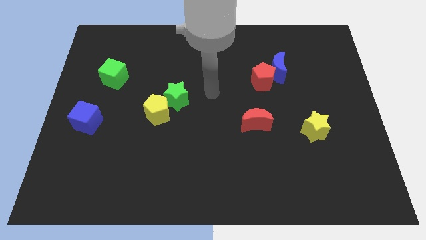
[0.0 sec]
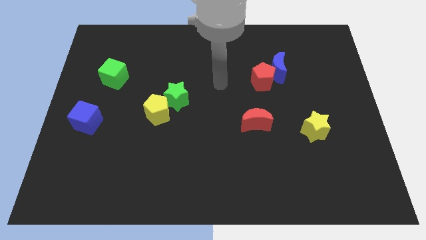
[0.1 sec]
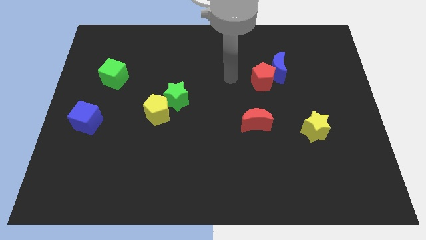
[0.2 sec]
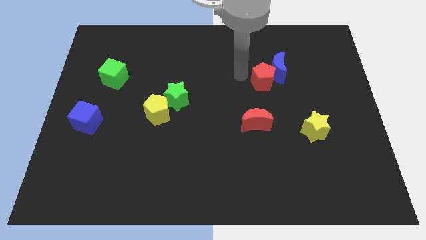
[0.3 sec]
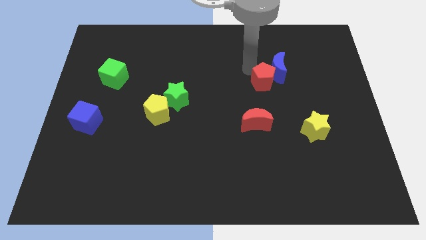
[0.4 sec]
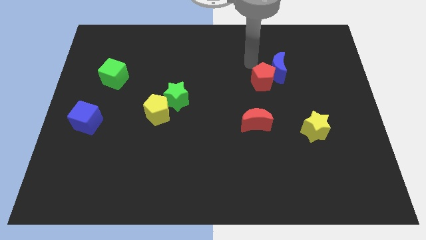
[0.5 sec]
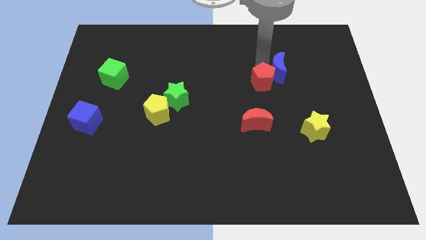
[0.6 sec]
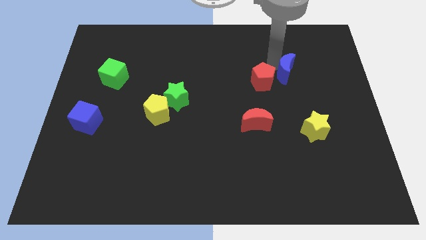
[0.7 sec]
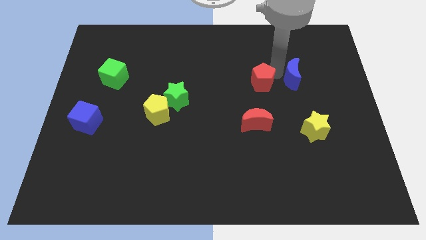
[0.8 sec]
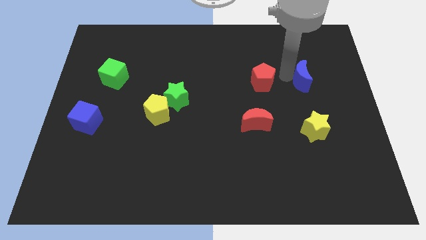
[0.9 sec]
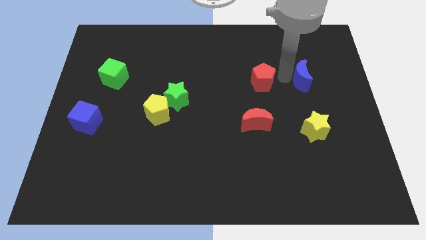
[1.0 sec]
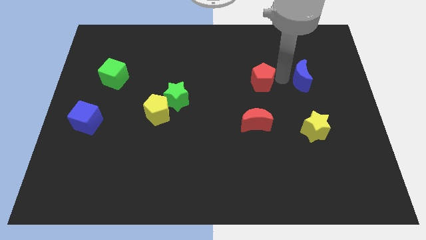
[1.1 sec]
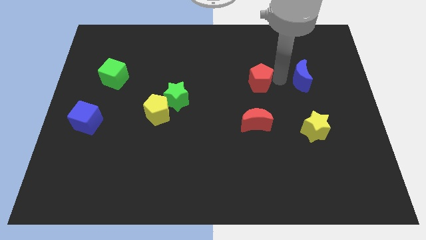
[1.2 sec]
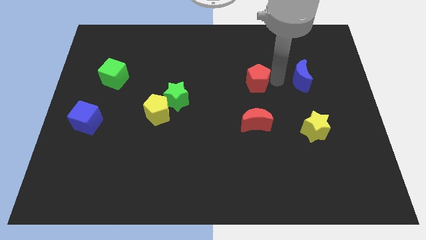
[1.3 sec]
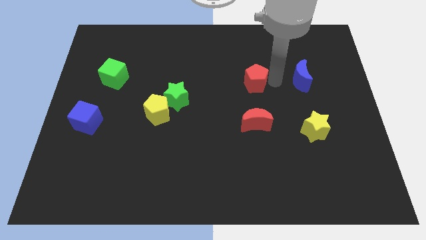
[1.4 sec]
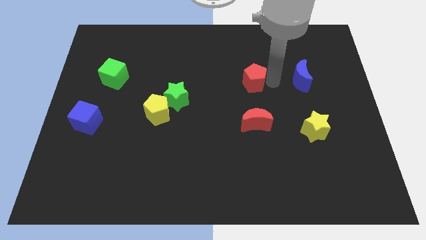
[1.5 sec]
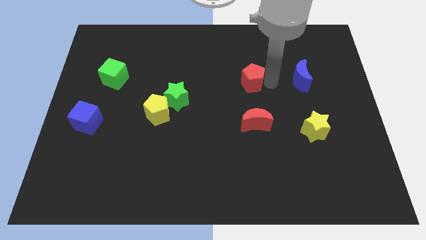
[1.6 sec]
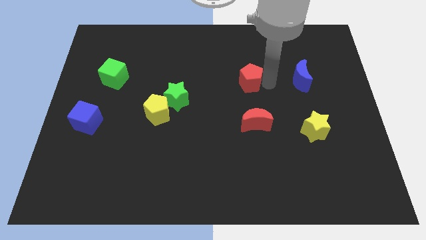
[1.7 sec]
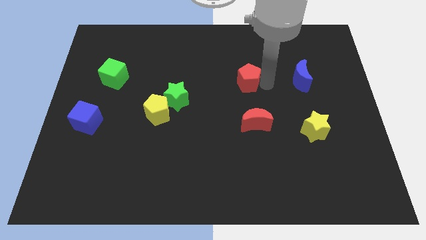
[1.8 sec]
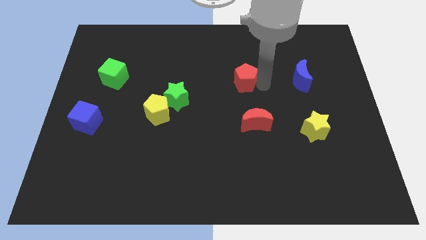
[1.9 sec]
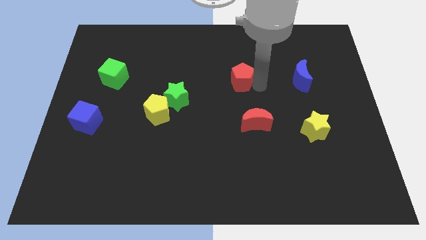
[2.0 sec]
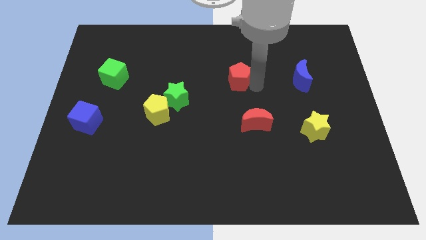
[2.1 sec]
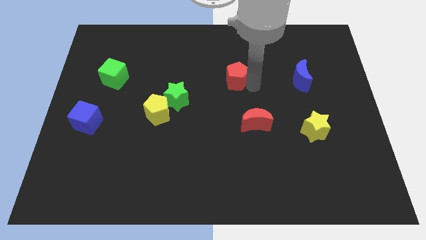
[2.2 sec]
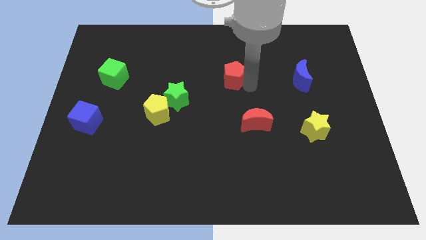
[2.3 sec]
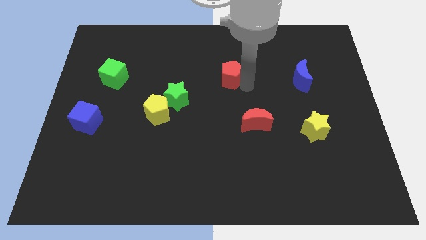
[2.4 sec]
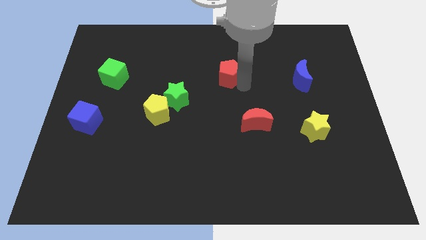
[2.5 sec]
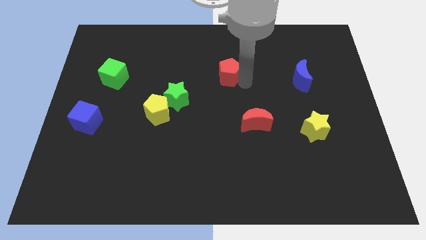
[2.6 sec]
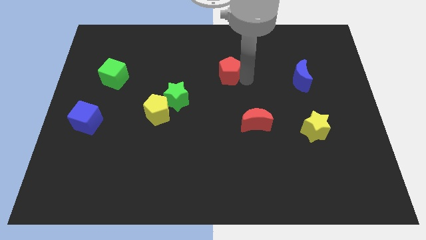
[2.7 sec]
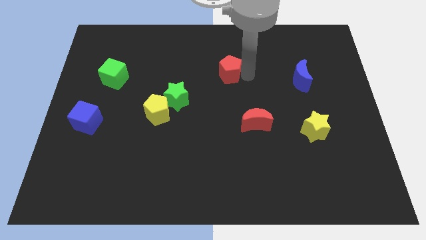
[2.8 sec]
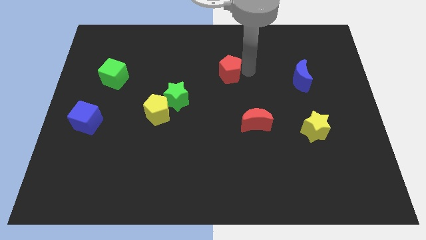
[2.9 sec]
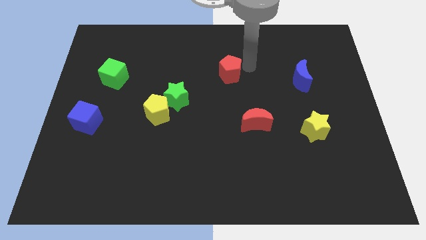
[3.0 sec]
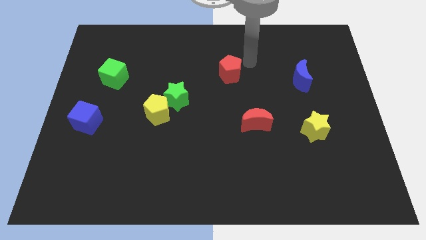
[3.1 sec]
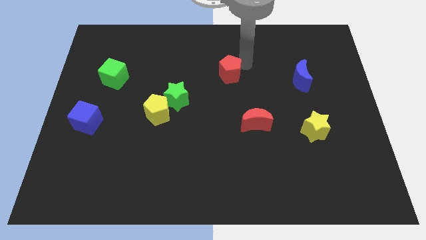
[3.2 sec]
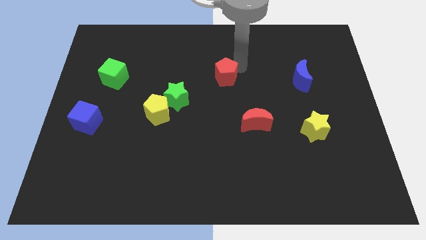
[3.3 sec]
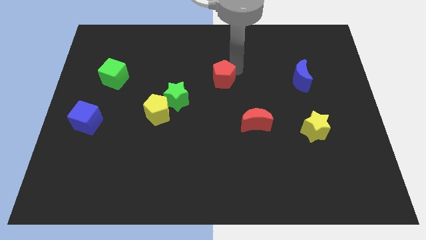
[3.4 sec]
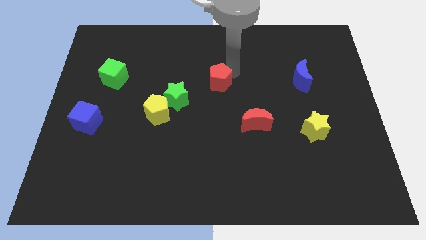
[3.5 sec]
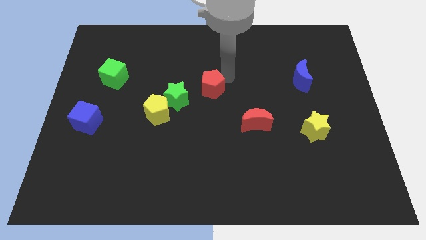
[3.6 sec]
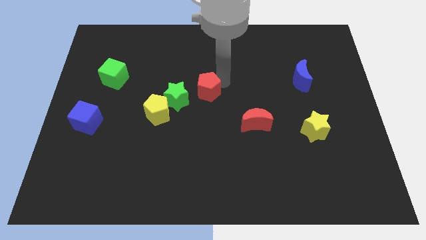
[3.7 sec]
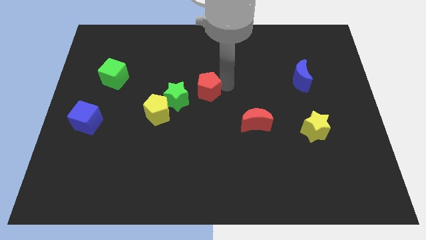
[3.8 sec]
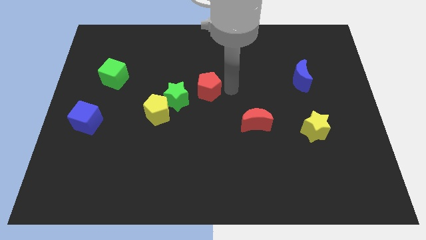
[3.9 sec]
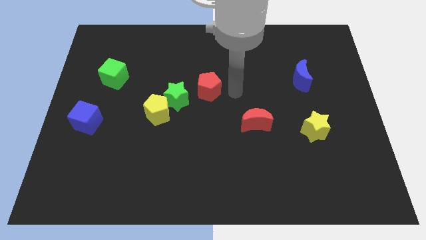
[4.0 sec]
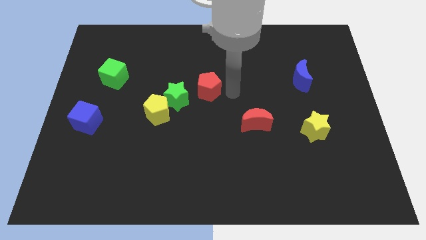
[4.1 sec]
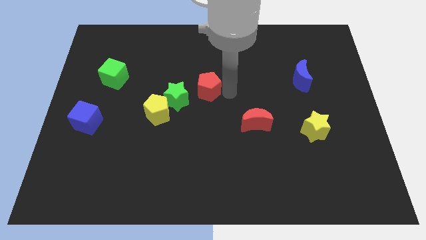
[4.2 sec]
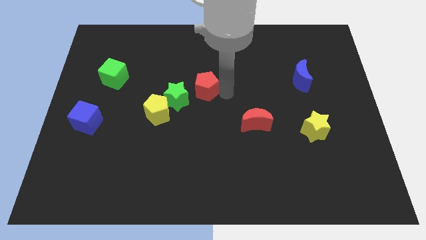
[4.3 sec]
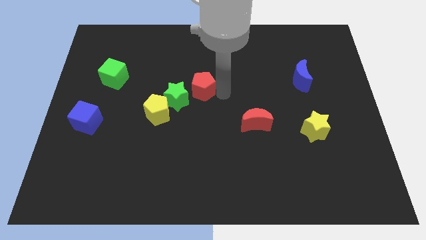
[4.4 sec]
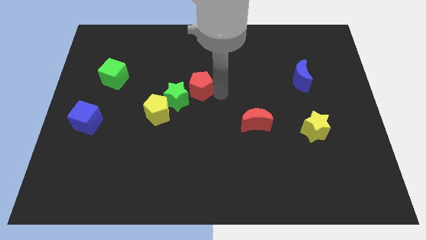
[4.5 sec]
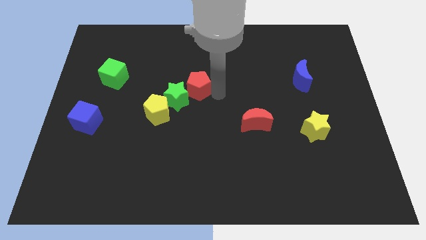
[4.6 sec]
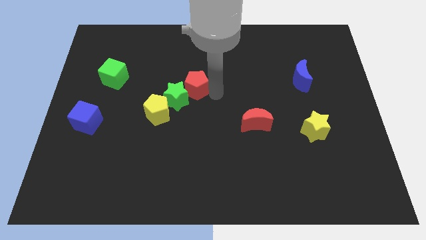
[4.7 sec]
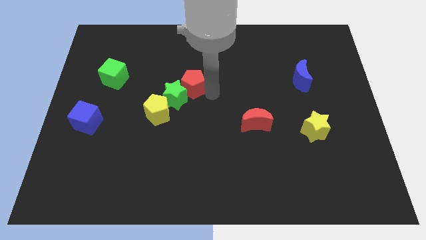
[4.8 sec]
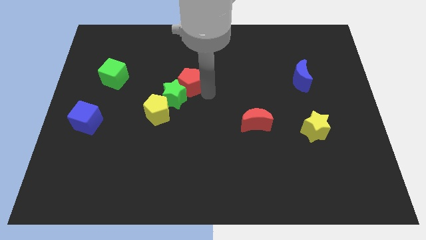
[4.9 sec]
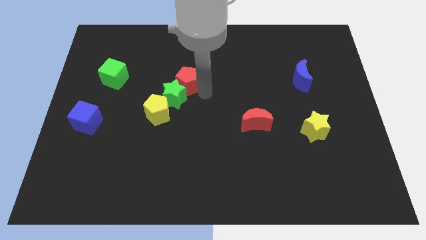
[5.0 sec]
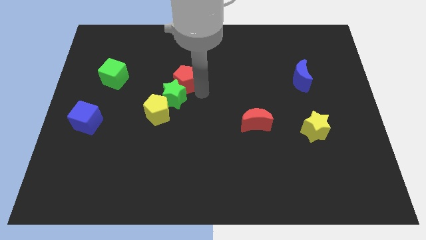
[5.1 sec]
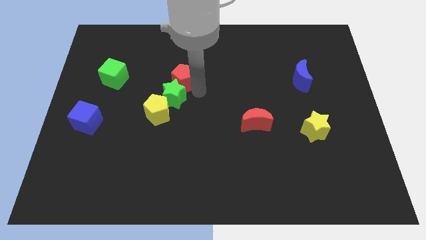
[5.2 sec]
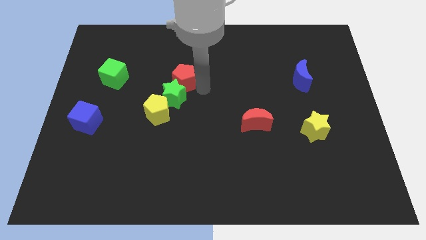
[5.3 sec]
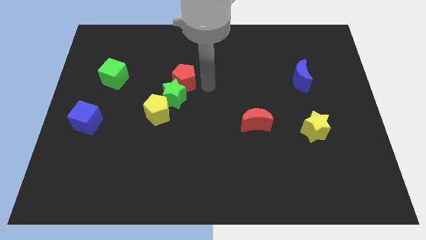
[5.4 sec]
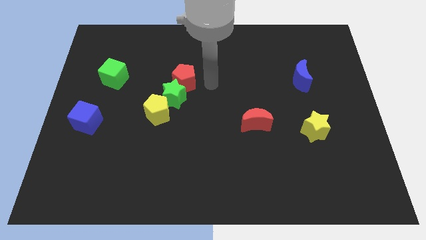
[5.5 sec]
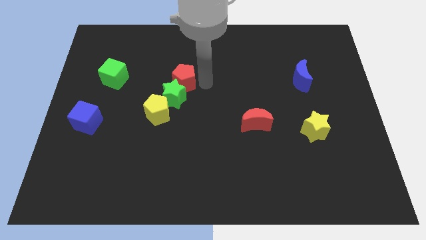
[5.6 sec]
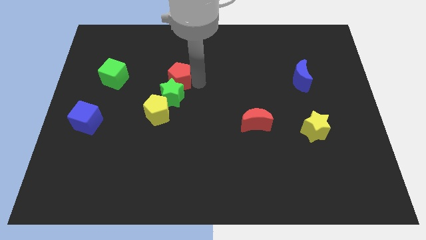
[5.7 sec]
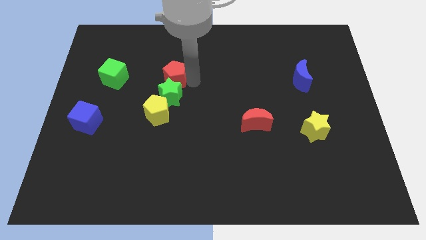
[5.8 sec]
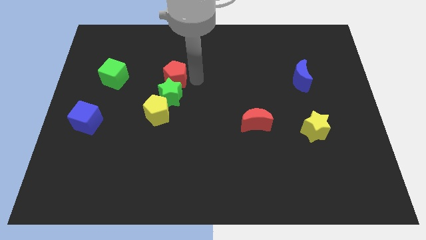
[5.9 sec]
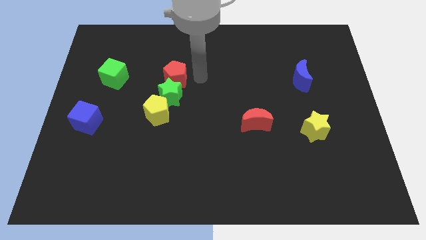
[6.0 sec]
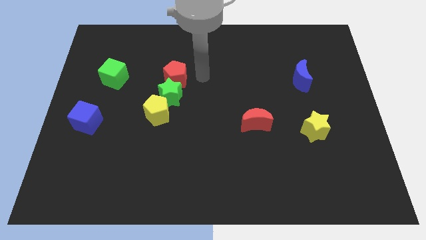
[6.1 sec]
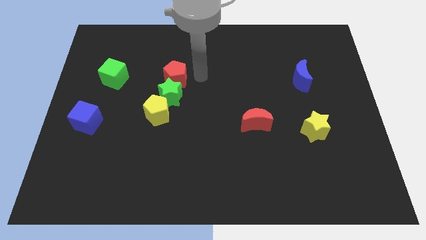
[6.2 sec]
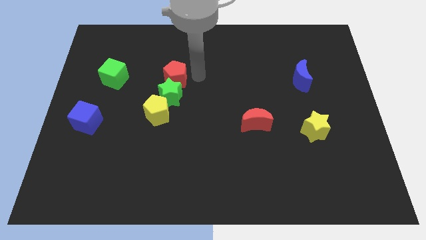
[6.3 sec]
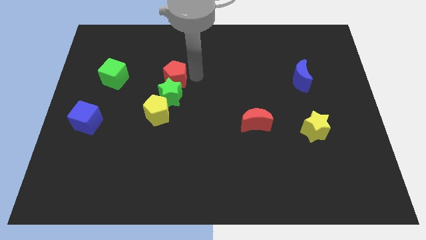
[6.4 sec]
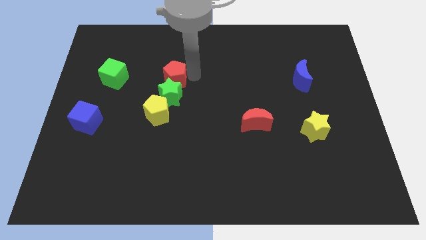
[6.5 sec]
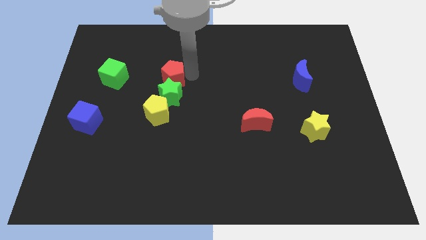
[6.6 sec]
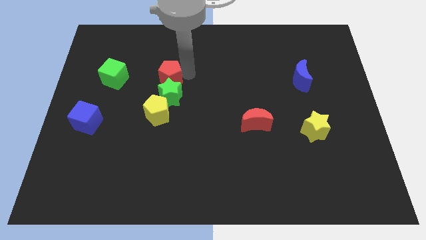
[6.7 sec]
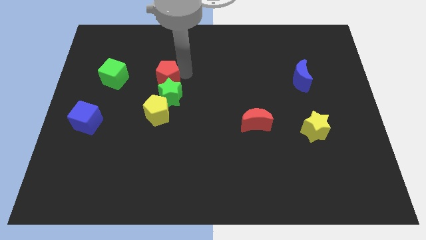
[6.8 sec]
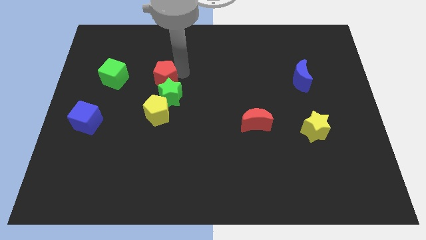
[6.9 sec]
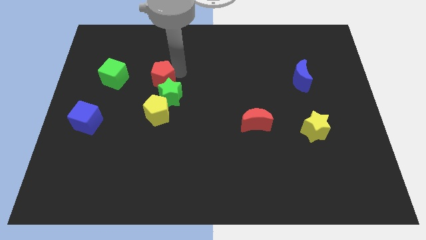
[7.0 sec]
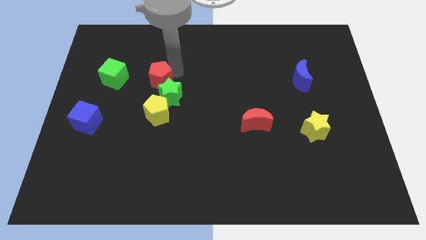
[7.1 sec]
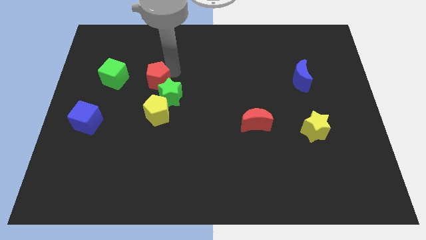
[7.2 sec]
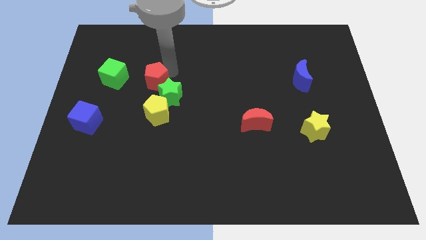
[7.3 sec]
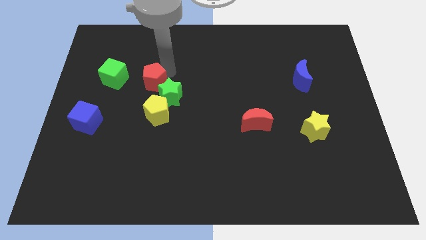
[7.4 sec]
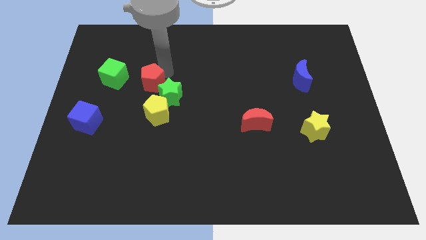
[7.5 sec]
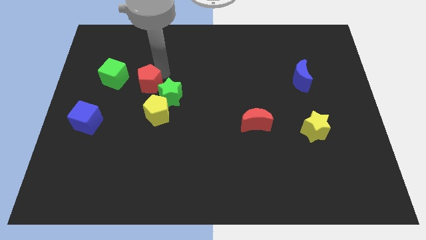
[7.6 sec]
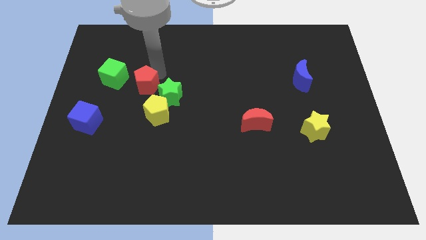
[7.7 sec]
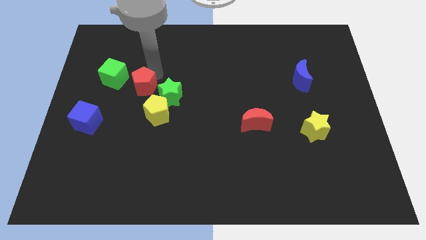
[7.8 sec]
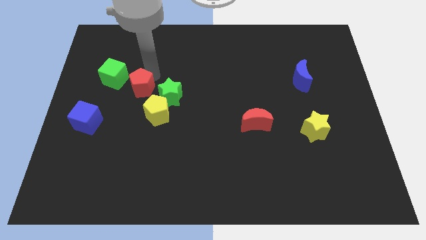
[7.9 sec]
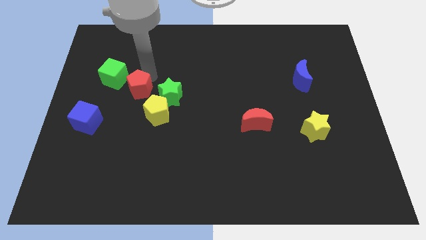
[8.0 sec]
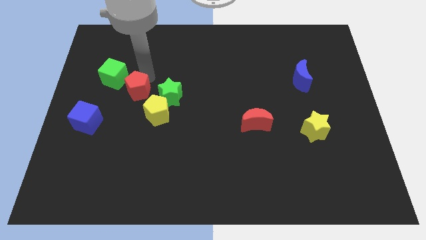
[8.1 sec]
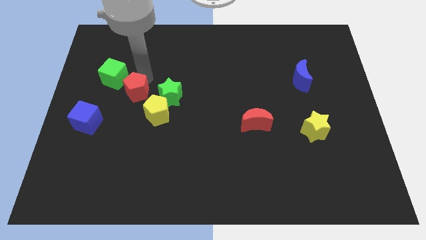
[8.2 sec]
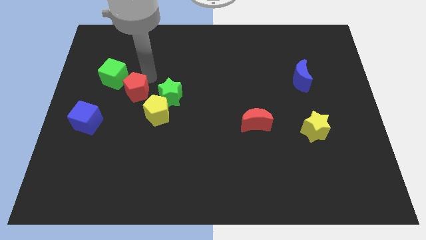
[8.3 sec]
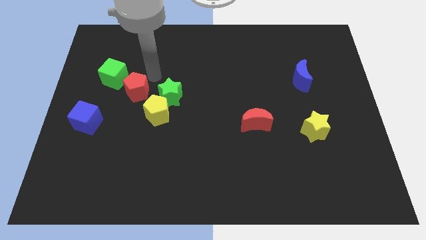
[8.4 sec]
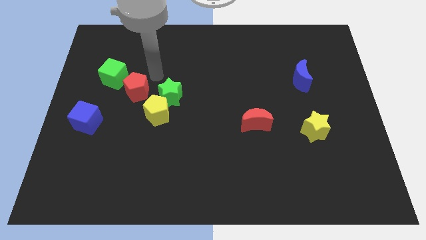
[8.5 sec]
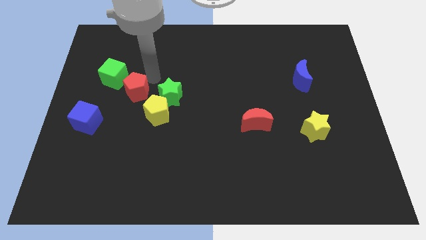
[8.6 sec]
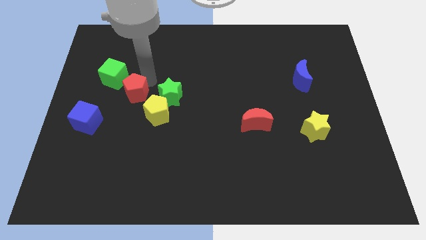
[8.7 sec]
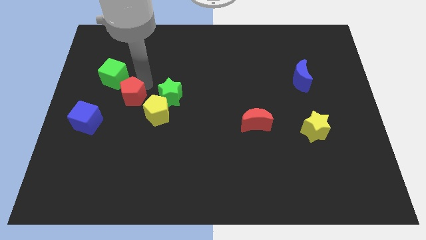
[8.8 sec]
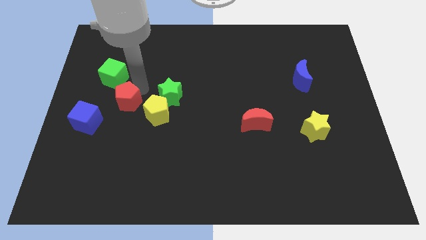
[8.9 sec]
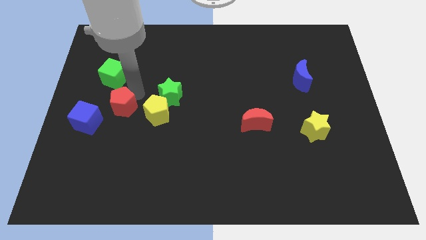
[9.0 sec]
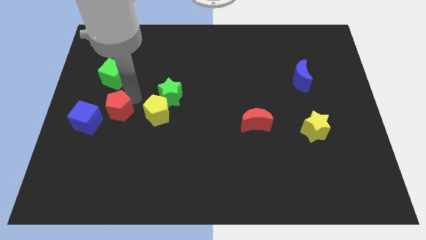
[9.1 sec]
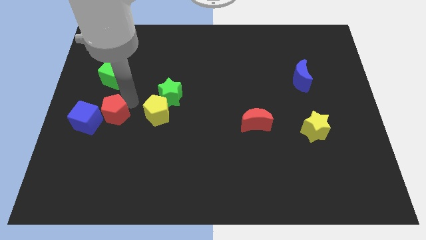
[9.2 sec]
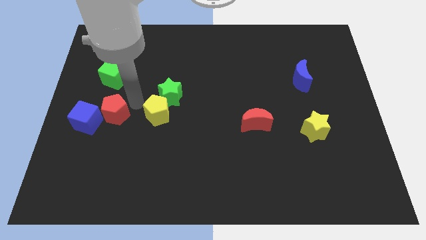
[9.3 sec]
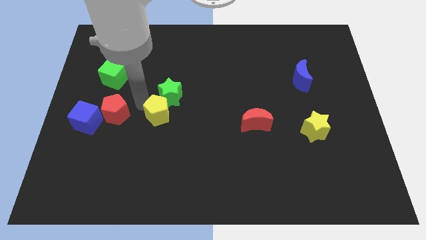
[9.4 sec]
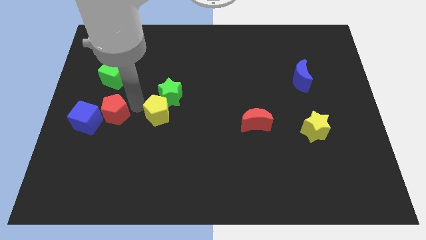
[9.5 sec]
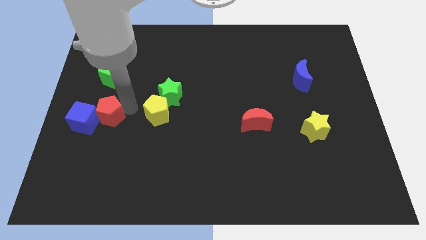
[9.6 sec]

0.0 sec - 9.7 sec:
put the red pentagon next to the blue cube
